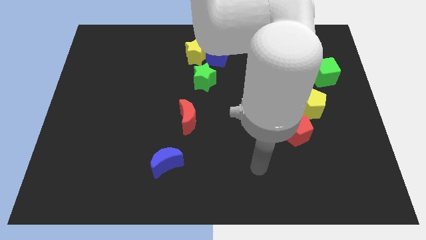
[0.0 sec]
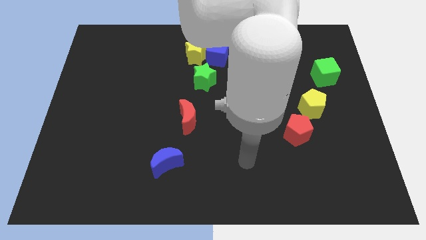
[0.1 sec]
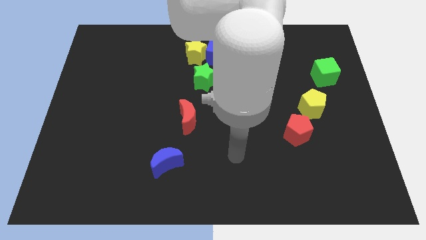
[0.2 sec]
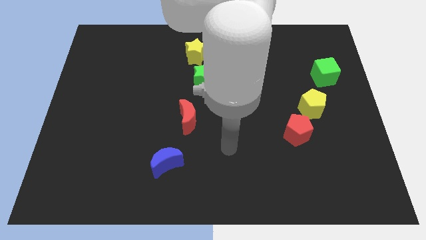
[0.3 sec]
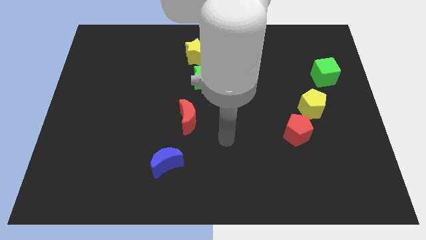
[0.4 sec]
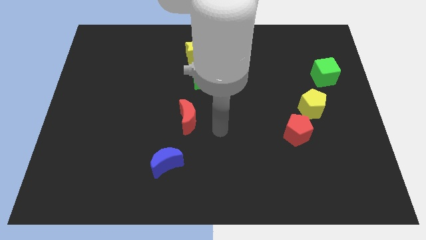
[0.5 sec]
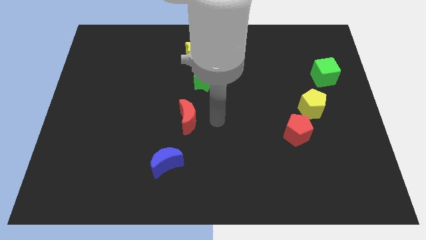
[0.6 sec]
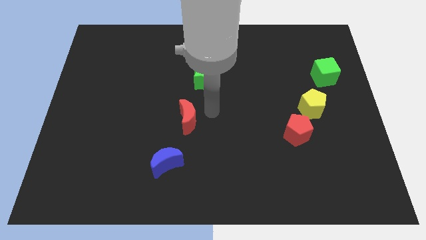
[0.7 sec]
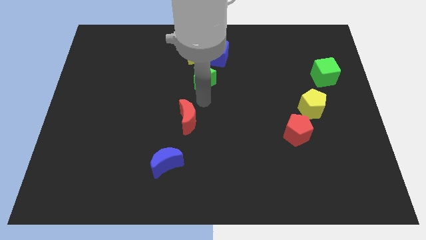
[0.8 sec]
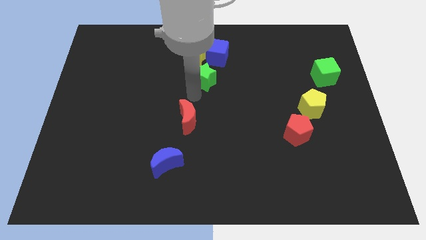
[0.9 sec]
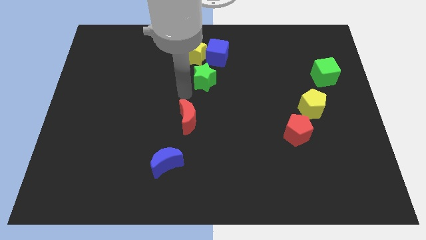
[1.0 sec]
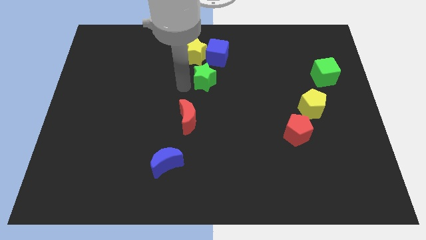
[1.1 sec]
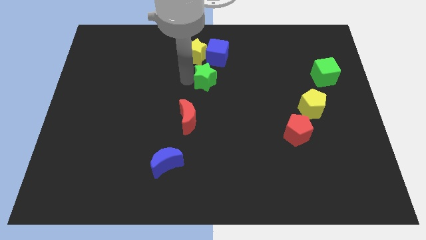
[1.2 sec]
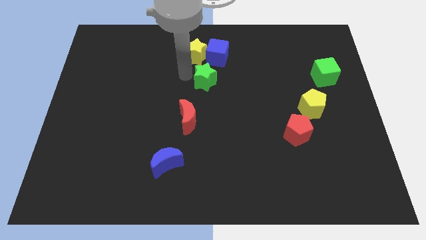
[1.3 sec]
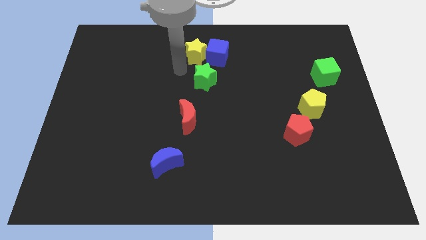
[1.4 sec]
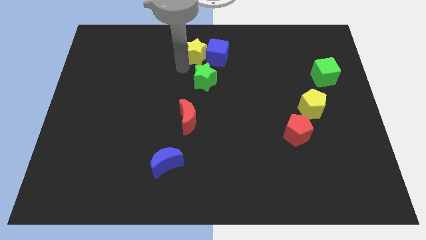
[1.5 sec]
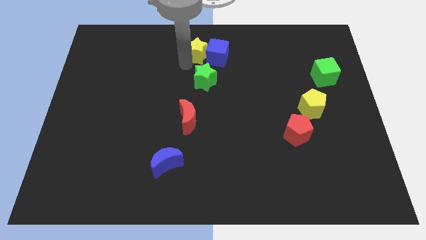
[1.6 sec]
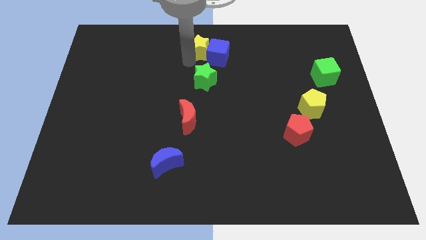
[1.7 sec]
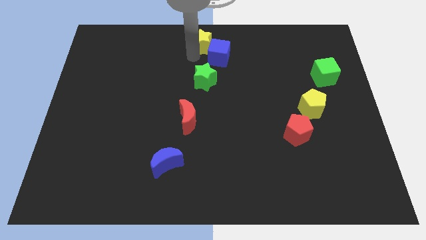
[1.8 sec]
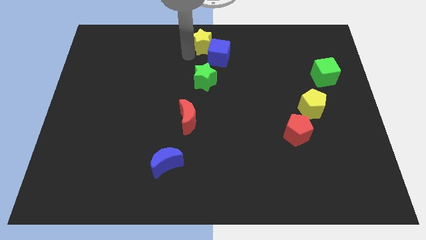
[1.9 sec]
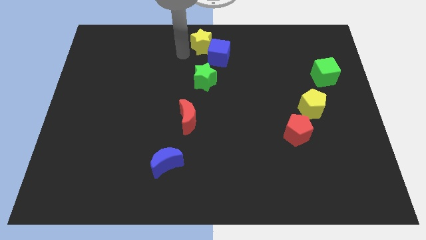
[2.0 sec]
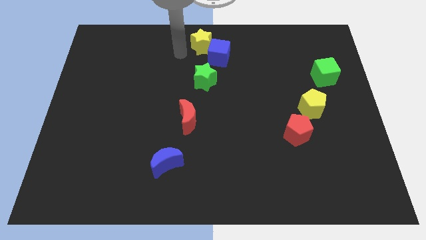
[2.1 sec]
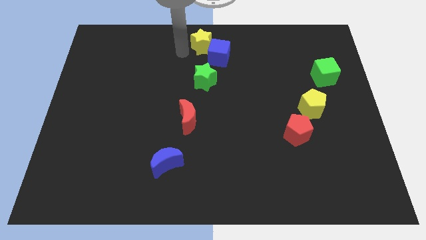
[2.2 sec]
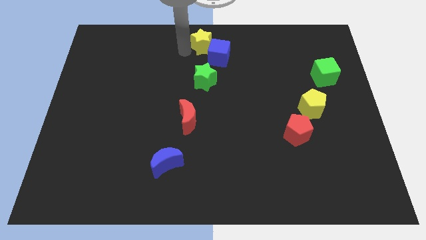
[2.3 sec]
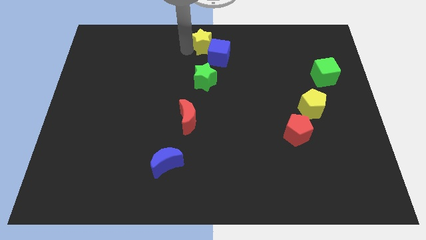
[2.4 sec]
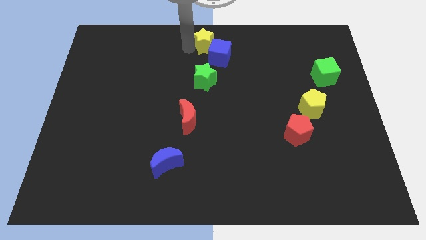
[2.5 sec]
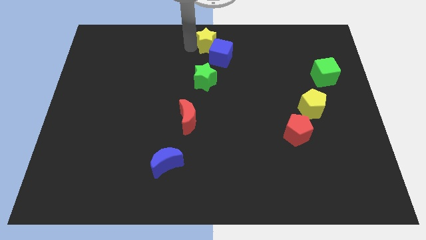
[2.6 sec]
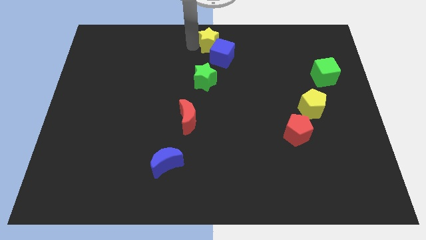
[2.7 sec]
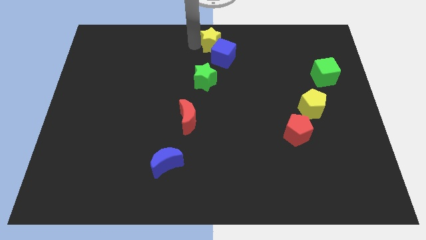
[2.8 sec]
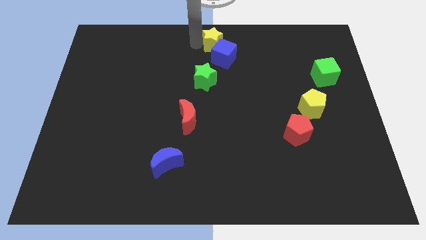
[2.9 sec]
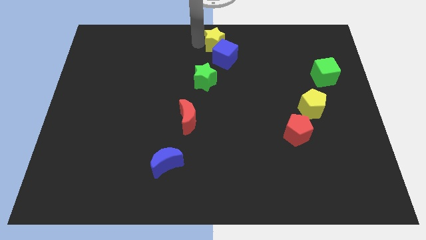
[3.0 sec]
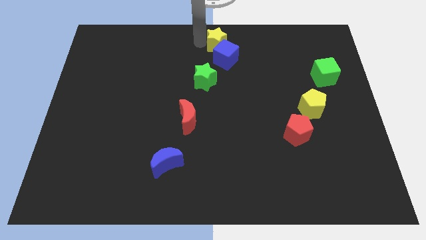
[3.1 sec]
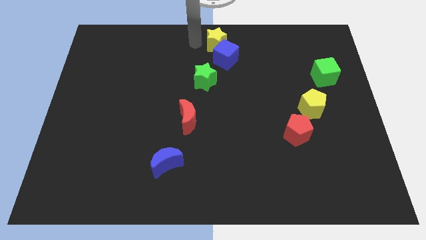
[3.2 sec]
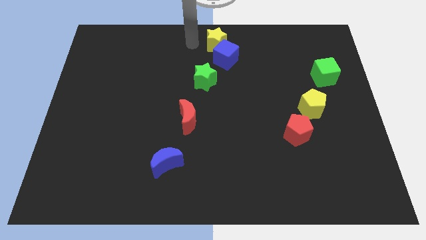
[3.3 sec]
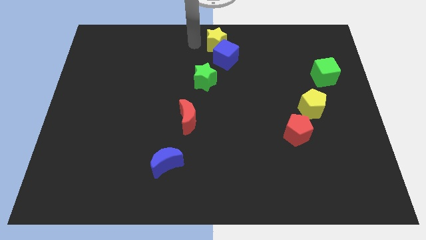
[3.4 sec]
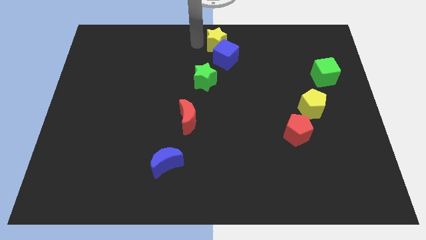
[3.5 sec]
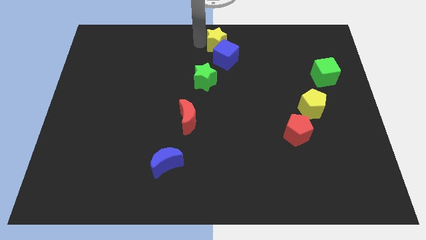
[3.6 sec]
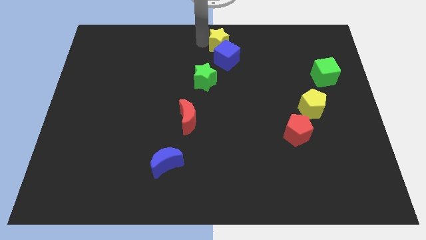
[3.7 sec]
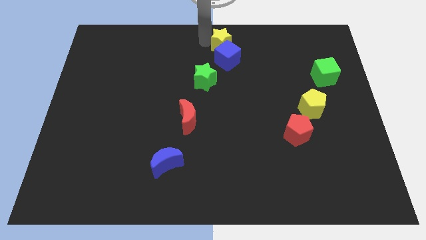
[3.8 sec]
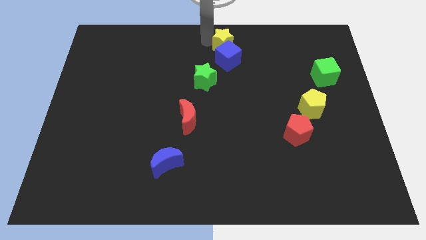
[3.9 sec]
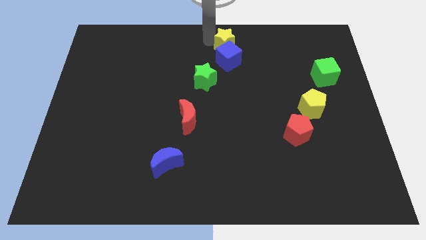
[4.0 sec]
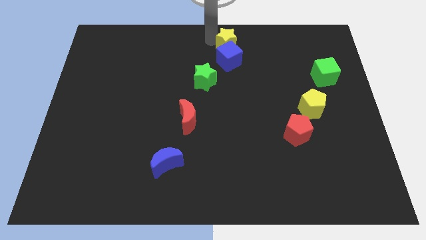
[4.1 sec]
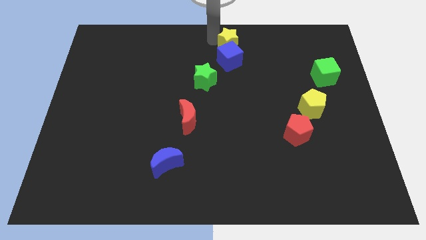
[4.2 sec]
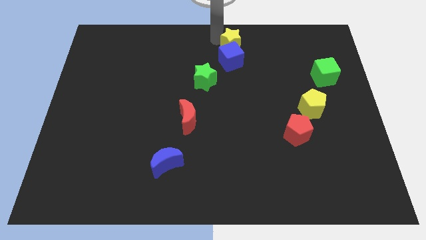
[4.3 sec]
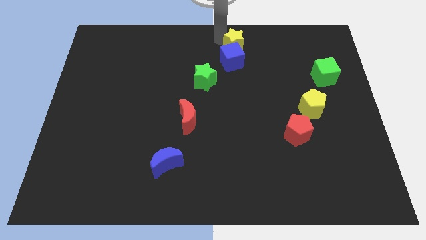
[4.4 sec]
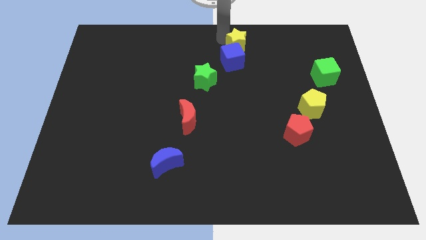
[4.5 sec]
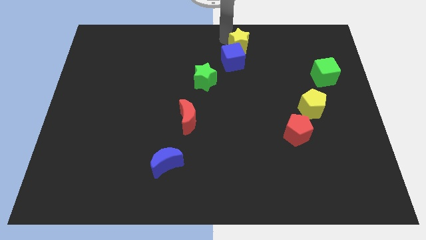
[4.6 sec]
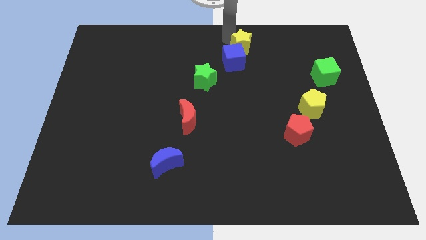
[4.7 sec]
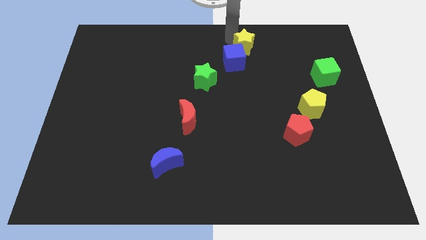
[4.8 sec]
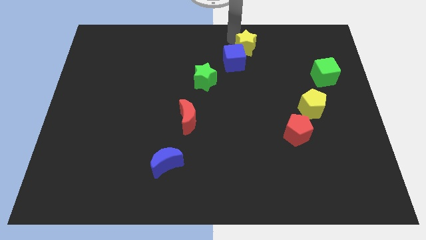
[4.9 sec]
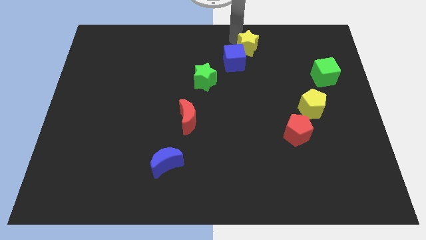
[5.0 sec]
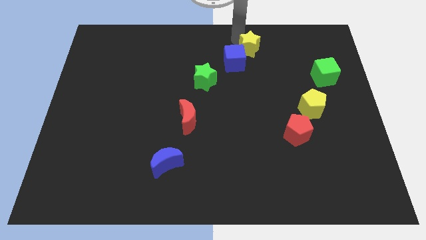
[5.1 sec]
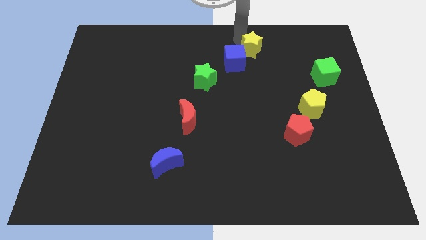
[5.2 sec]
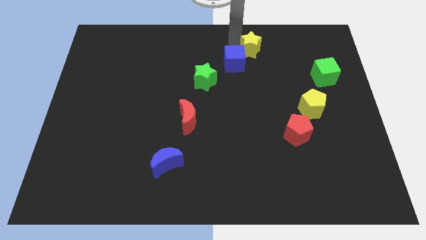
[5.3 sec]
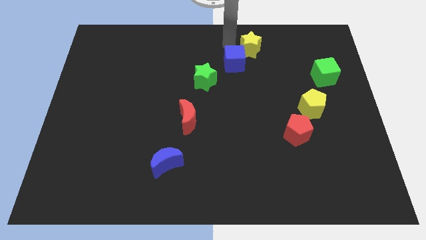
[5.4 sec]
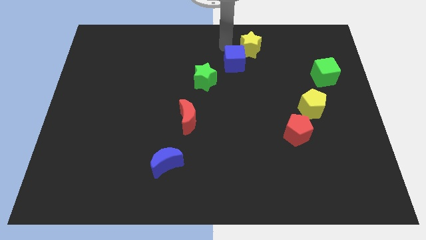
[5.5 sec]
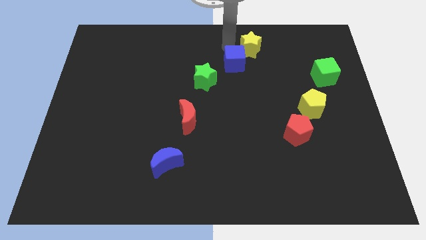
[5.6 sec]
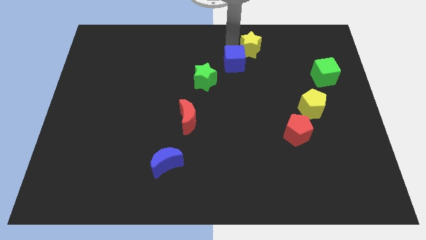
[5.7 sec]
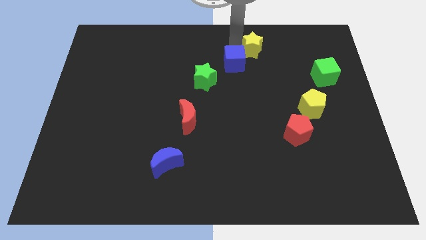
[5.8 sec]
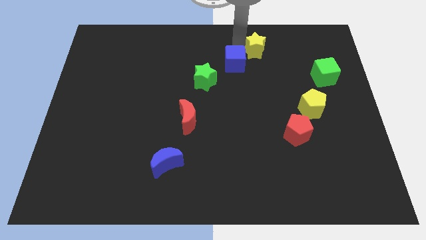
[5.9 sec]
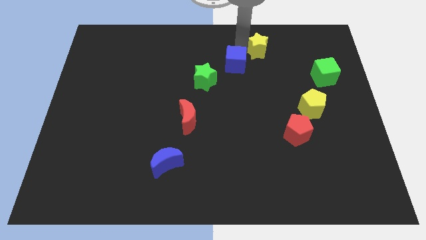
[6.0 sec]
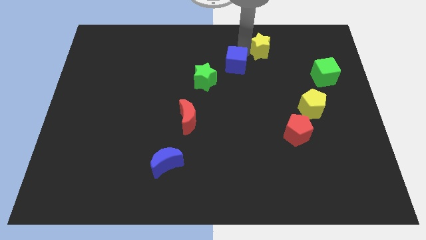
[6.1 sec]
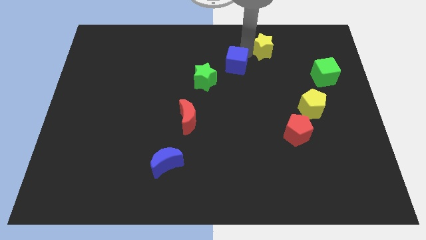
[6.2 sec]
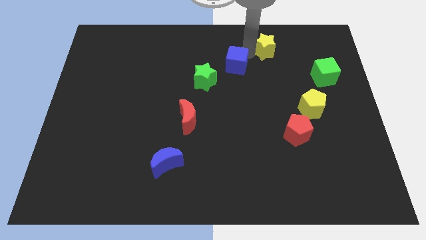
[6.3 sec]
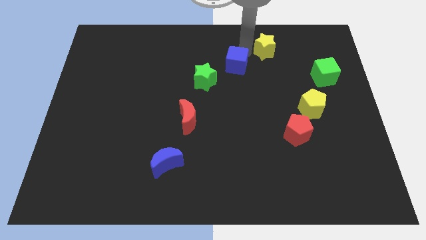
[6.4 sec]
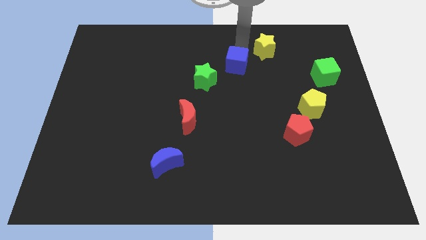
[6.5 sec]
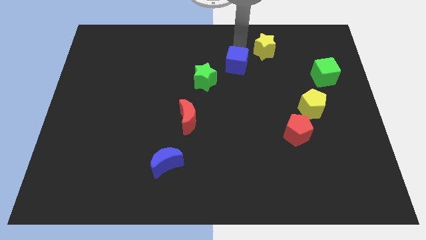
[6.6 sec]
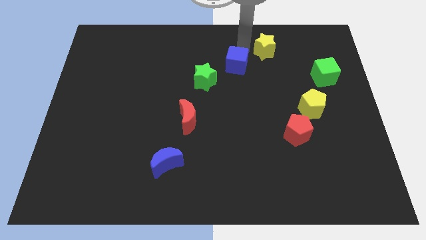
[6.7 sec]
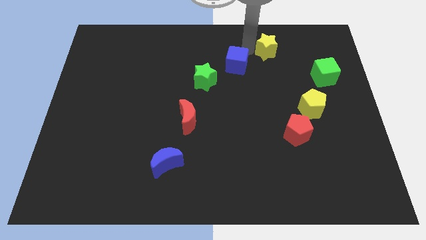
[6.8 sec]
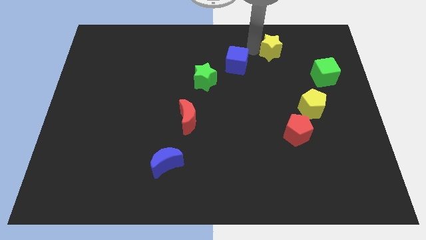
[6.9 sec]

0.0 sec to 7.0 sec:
slide the yellow star right

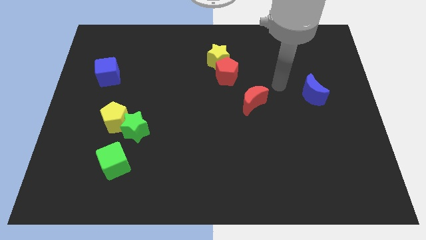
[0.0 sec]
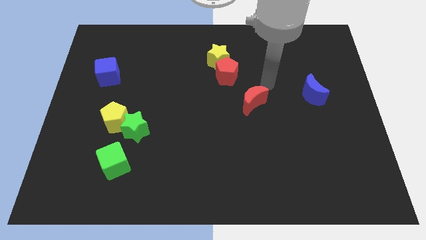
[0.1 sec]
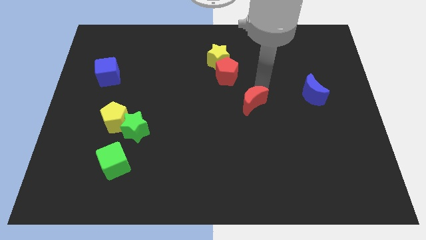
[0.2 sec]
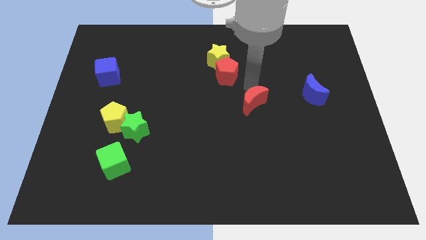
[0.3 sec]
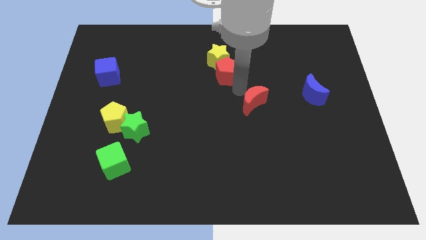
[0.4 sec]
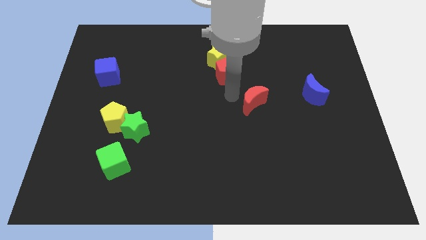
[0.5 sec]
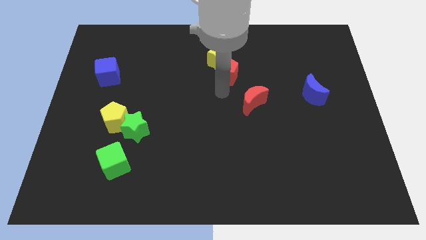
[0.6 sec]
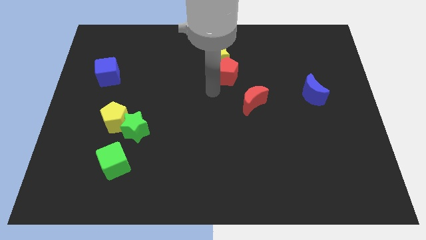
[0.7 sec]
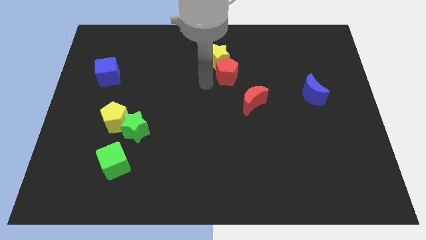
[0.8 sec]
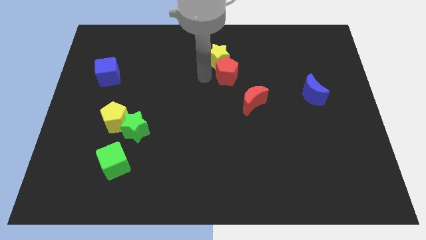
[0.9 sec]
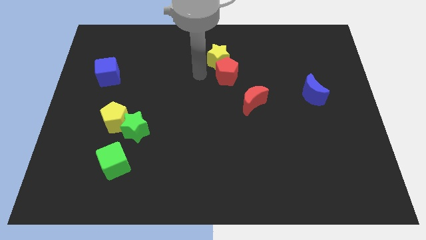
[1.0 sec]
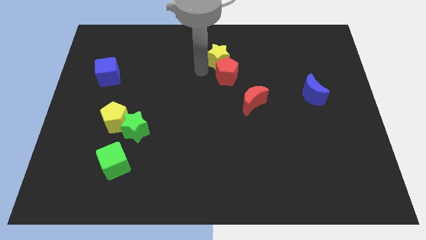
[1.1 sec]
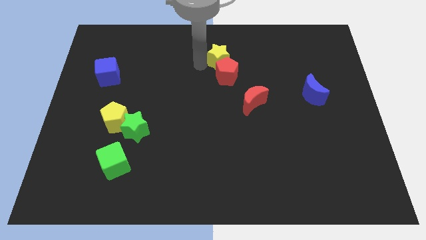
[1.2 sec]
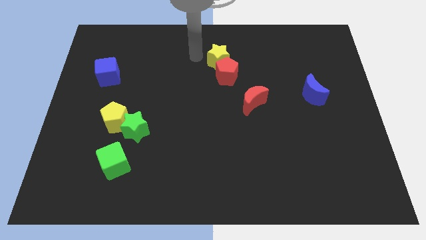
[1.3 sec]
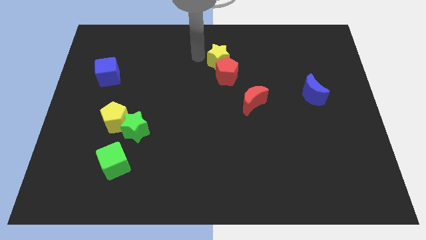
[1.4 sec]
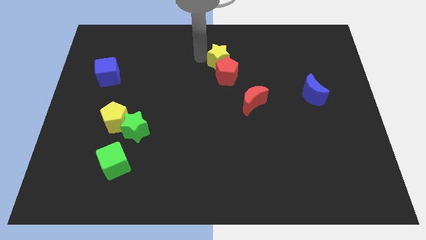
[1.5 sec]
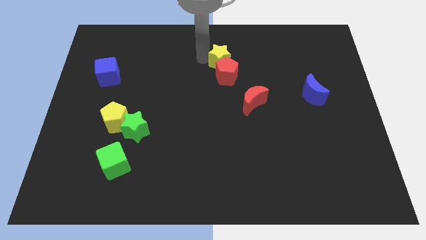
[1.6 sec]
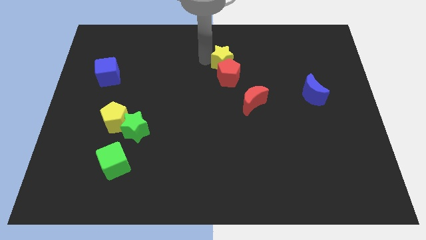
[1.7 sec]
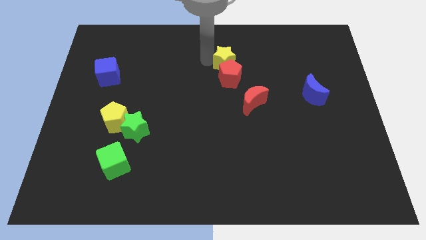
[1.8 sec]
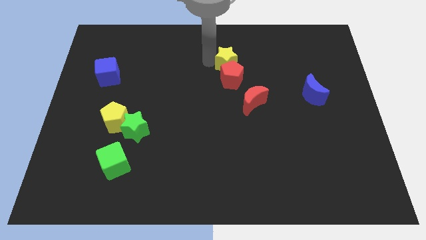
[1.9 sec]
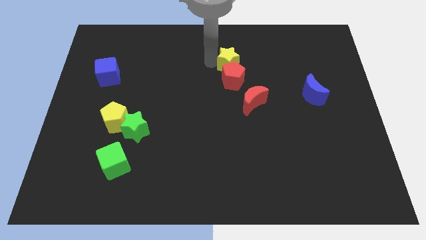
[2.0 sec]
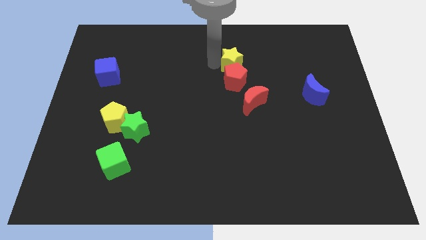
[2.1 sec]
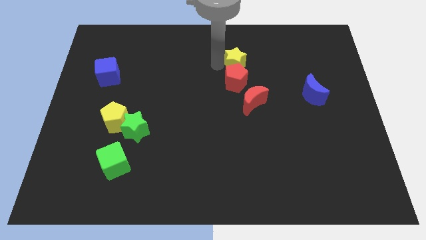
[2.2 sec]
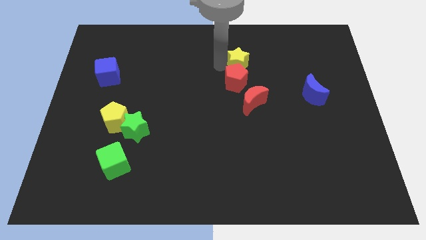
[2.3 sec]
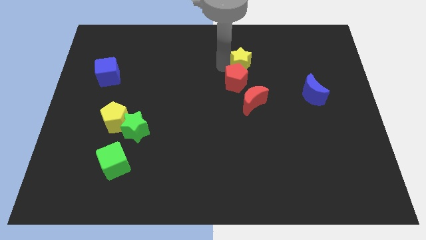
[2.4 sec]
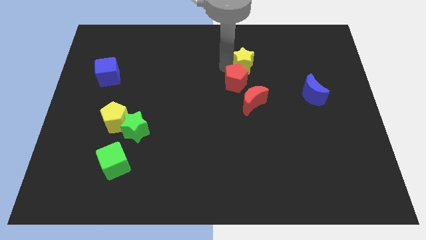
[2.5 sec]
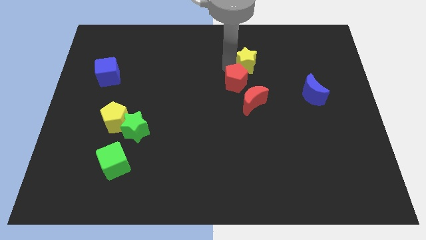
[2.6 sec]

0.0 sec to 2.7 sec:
push the yellow star to the right a bit
